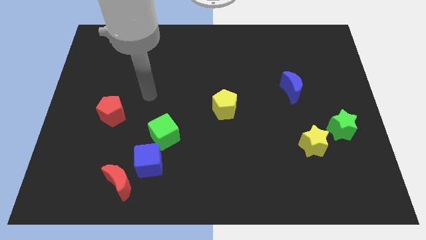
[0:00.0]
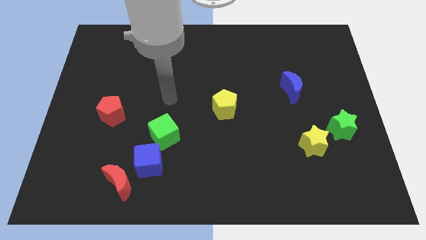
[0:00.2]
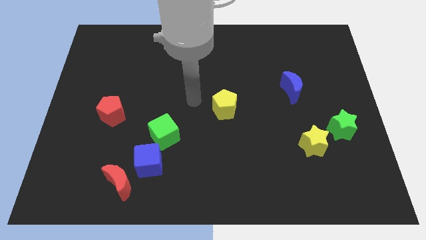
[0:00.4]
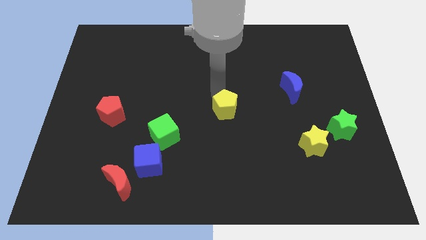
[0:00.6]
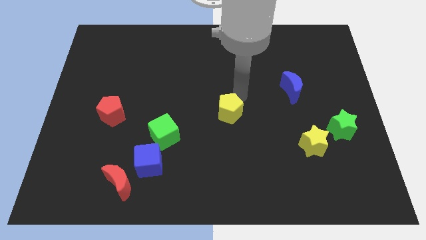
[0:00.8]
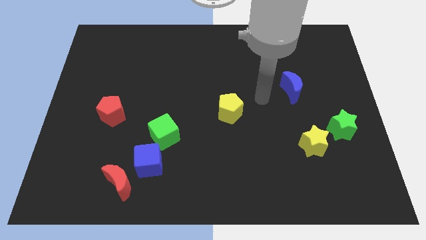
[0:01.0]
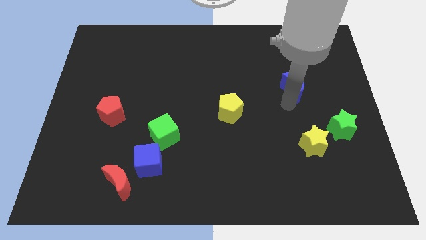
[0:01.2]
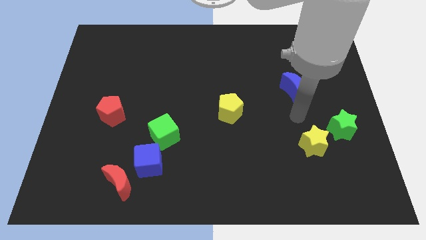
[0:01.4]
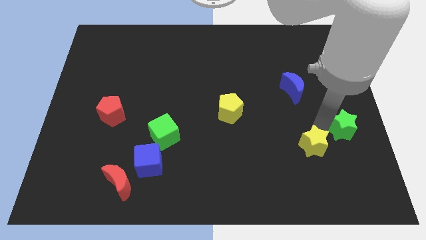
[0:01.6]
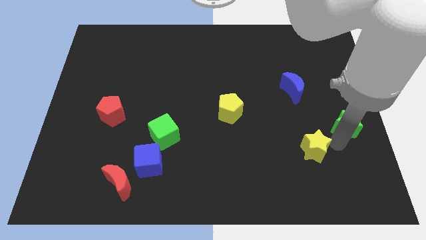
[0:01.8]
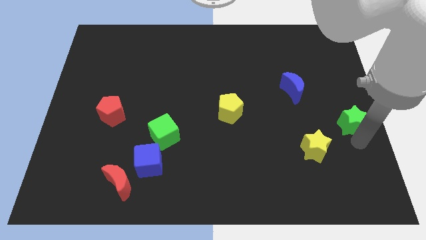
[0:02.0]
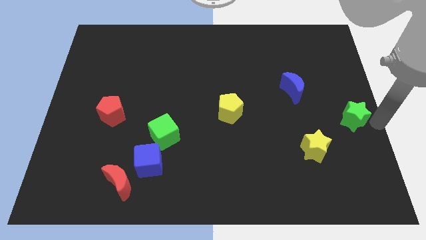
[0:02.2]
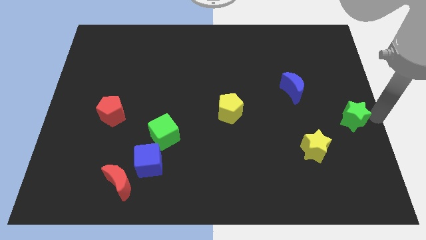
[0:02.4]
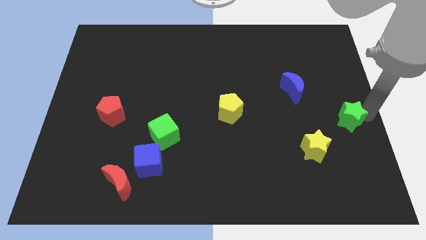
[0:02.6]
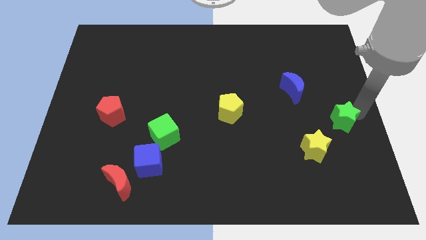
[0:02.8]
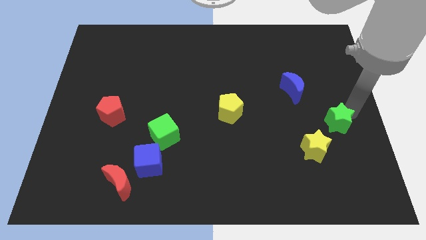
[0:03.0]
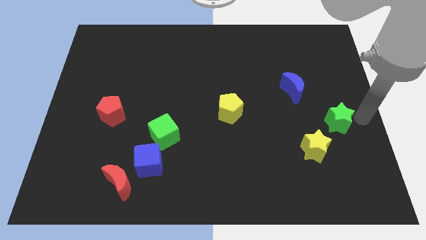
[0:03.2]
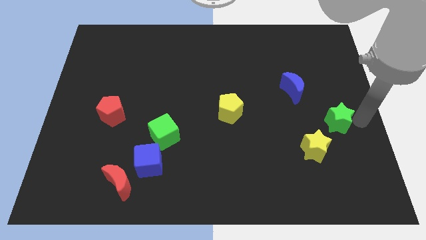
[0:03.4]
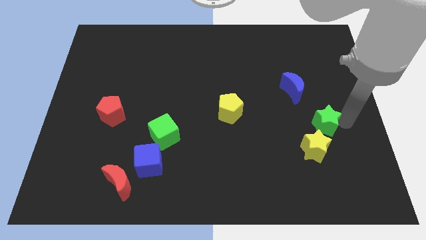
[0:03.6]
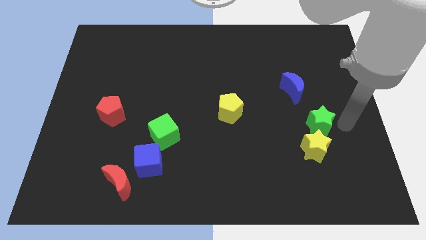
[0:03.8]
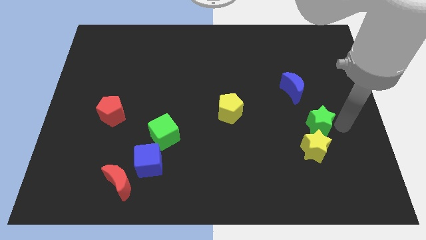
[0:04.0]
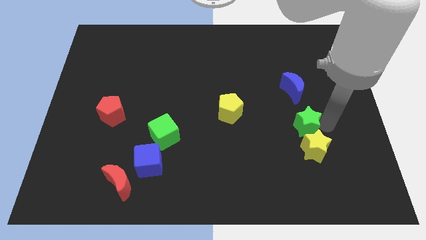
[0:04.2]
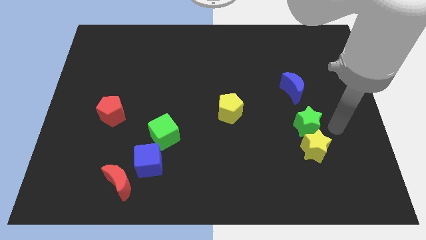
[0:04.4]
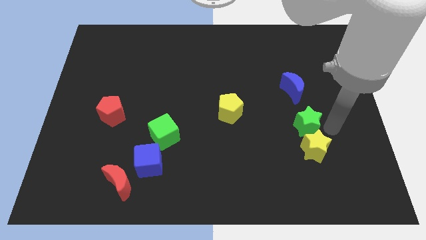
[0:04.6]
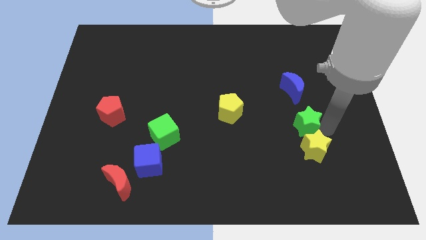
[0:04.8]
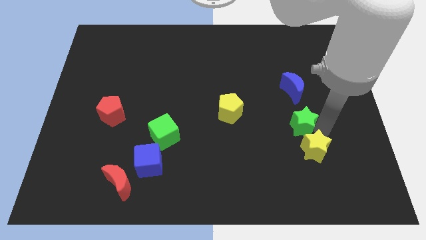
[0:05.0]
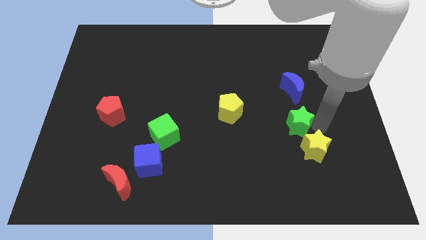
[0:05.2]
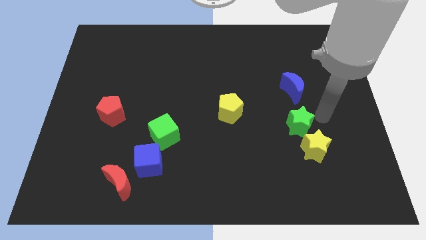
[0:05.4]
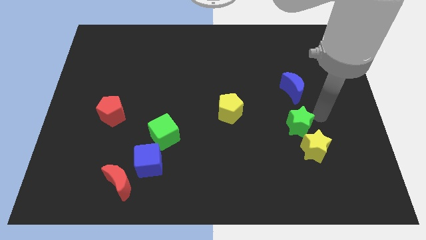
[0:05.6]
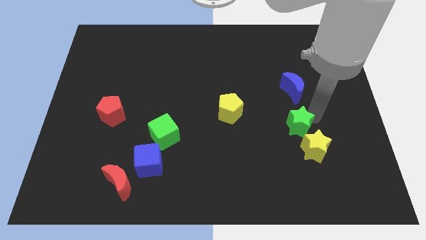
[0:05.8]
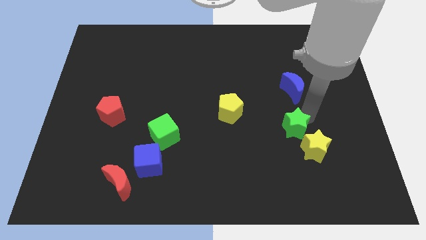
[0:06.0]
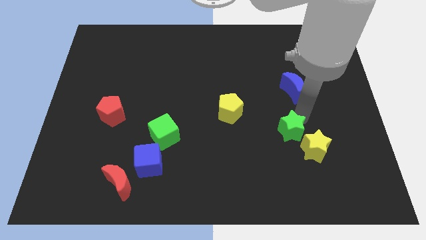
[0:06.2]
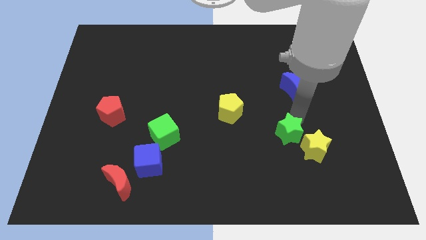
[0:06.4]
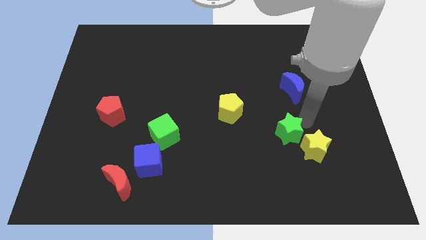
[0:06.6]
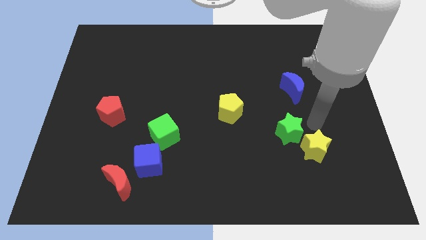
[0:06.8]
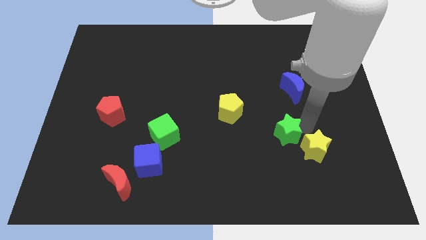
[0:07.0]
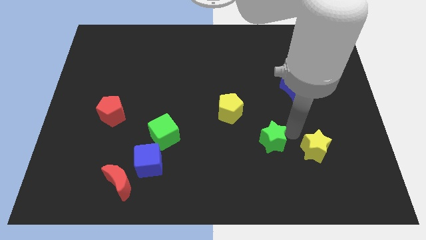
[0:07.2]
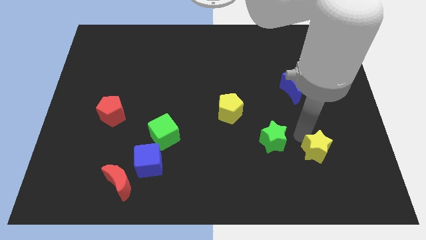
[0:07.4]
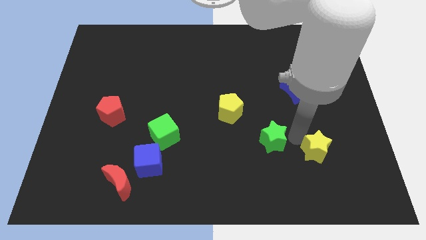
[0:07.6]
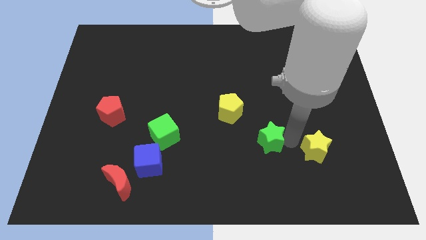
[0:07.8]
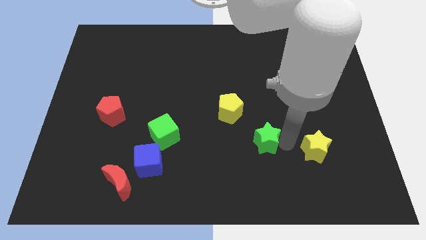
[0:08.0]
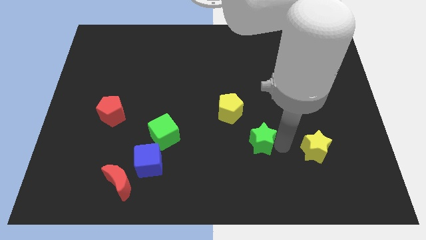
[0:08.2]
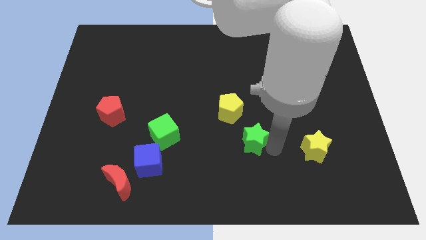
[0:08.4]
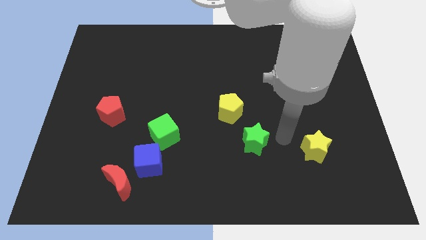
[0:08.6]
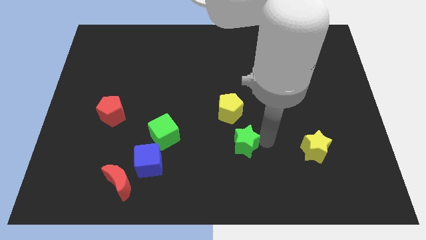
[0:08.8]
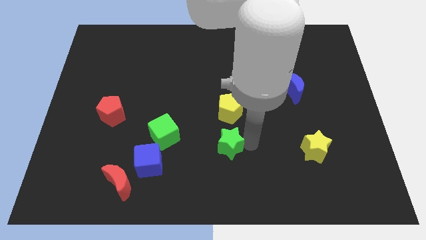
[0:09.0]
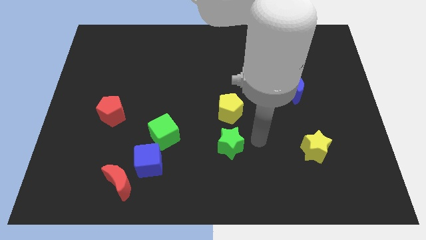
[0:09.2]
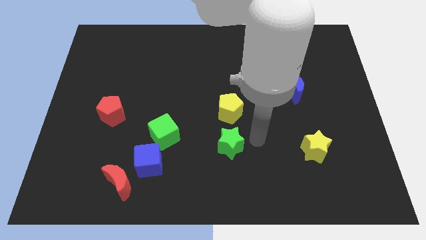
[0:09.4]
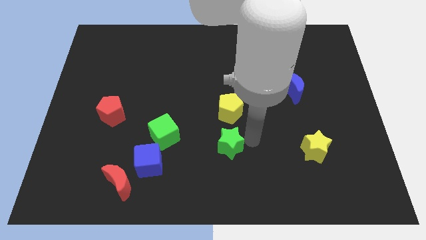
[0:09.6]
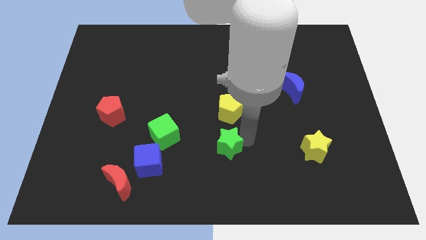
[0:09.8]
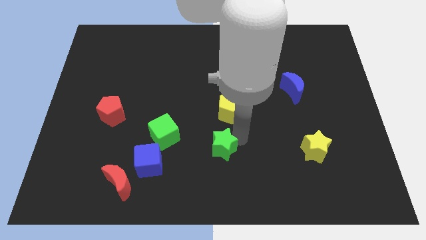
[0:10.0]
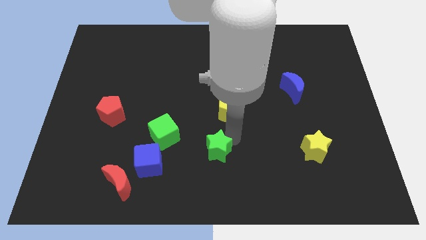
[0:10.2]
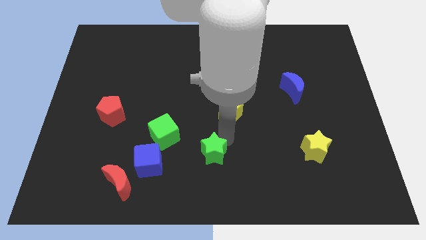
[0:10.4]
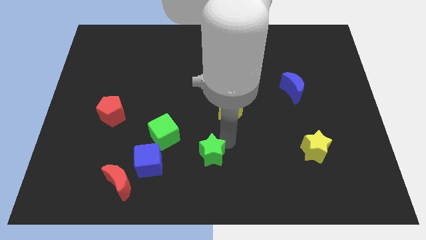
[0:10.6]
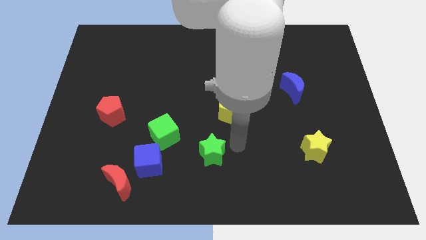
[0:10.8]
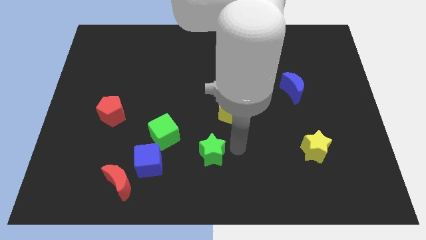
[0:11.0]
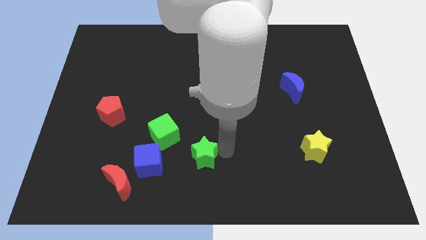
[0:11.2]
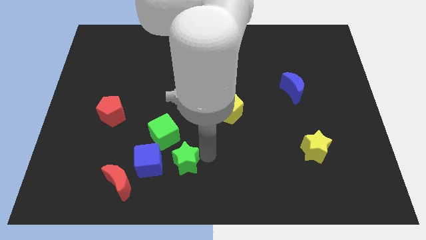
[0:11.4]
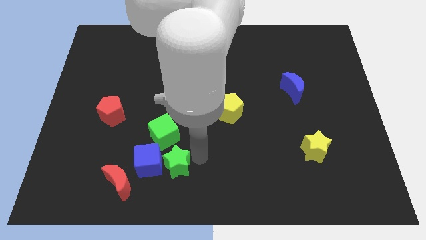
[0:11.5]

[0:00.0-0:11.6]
move the green star next to the blue cube
